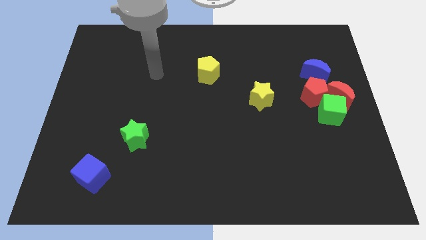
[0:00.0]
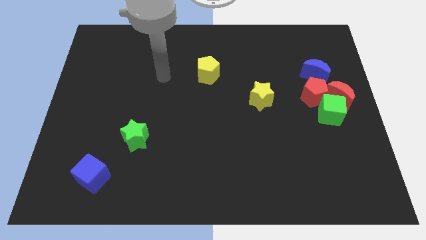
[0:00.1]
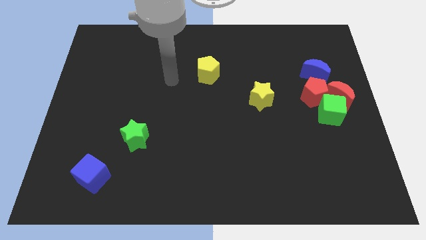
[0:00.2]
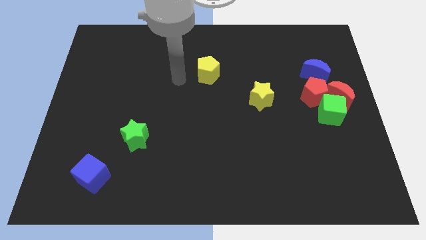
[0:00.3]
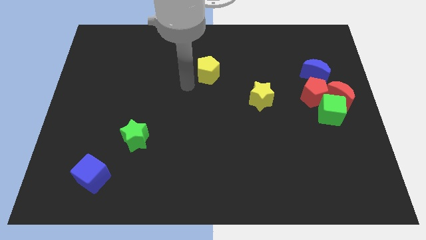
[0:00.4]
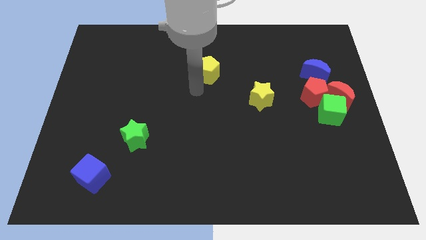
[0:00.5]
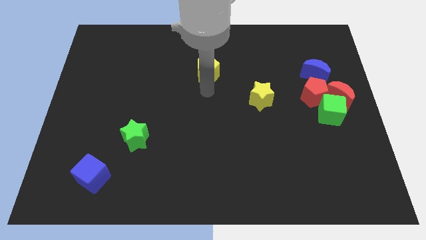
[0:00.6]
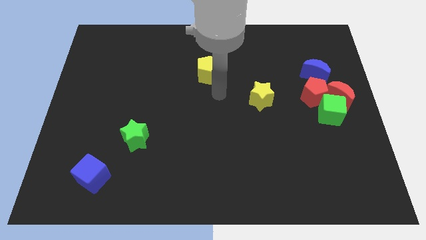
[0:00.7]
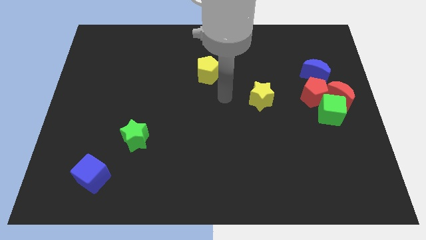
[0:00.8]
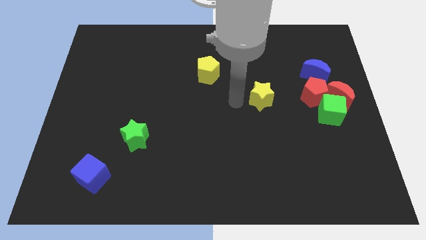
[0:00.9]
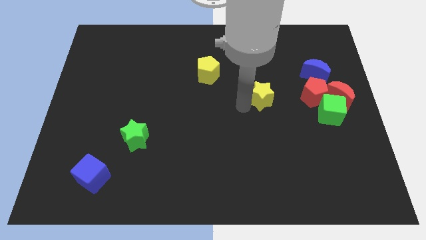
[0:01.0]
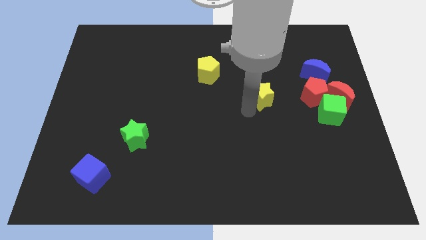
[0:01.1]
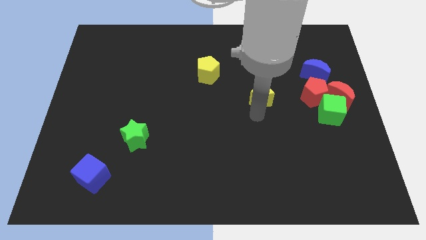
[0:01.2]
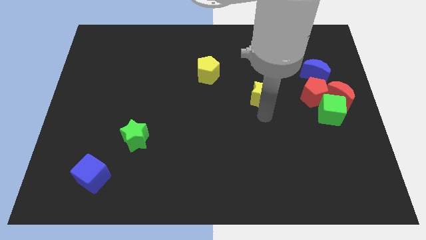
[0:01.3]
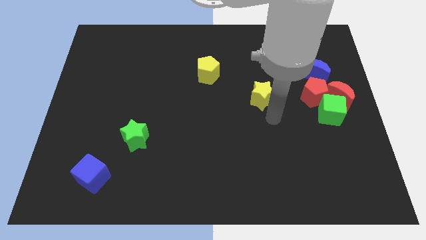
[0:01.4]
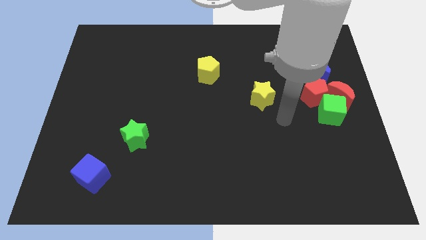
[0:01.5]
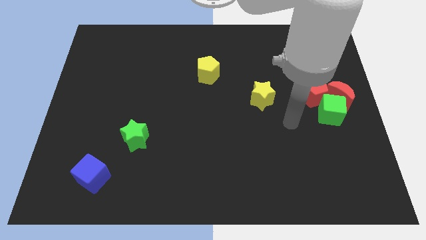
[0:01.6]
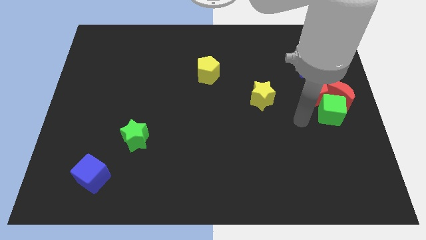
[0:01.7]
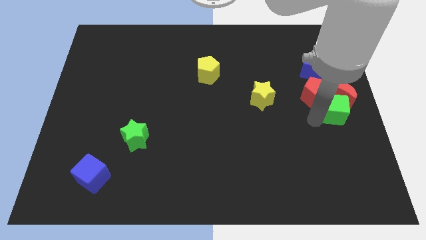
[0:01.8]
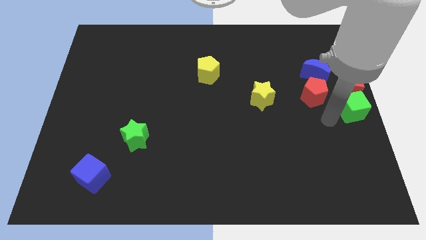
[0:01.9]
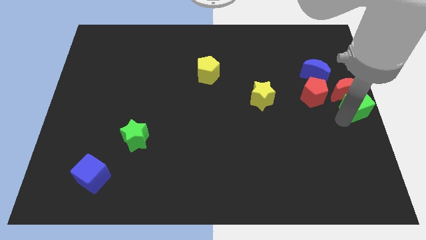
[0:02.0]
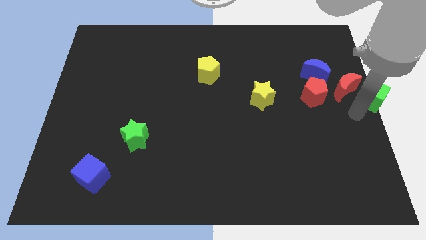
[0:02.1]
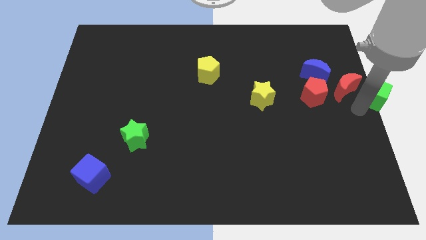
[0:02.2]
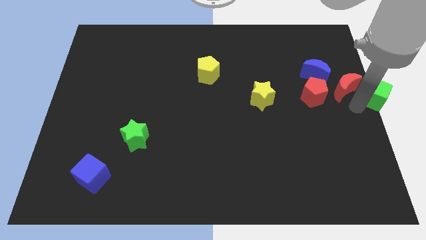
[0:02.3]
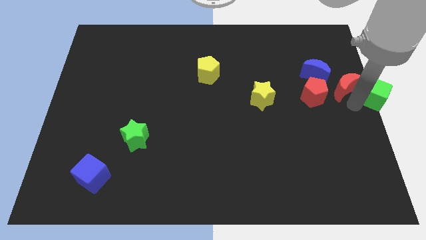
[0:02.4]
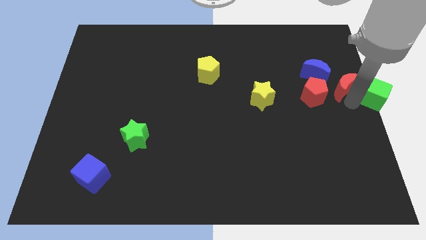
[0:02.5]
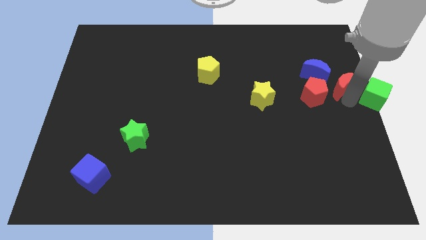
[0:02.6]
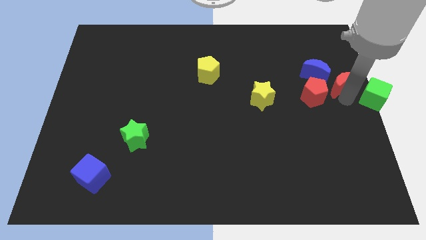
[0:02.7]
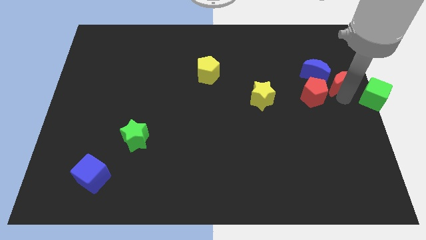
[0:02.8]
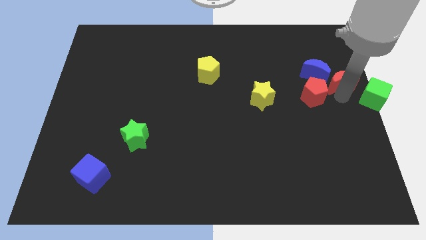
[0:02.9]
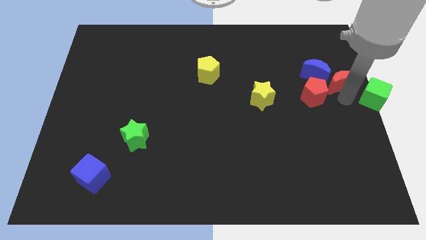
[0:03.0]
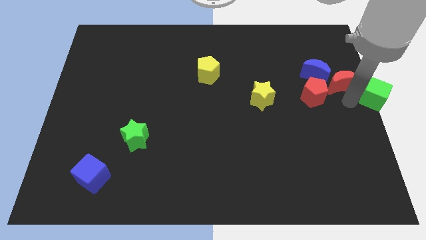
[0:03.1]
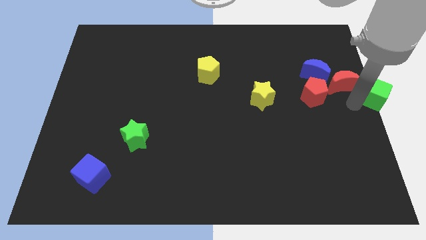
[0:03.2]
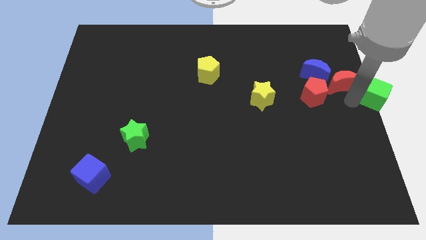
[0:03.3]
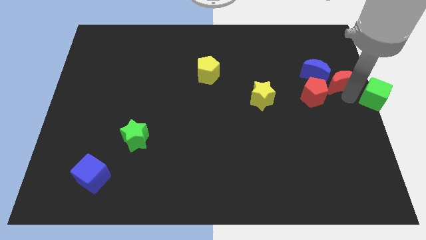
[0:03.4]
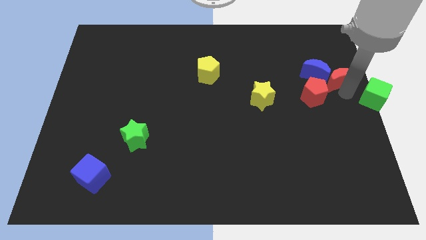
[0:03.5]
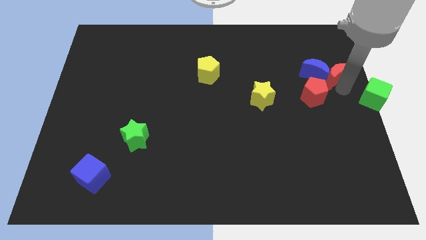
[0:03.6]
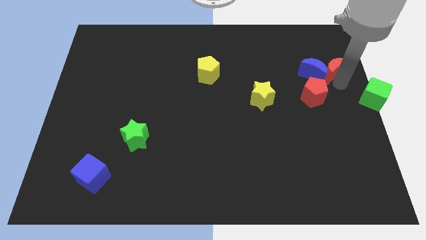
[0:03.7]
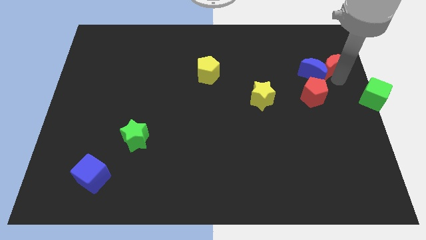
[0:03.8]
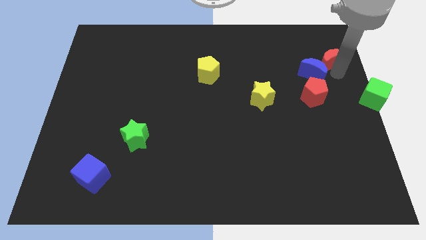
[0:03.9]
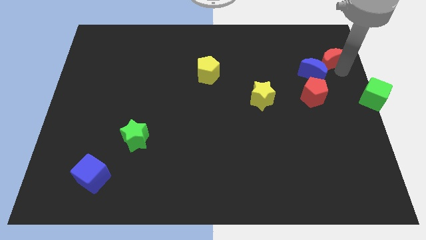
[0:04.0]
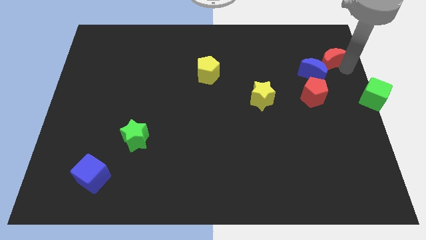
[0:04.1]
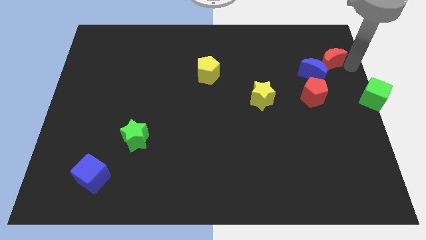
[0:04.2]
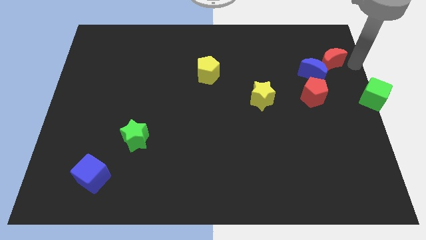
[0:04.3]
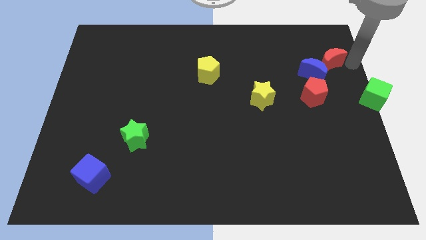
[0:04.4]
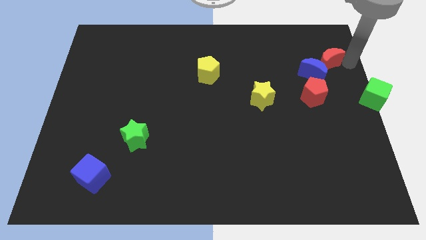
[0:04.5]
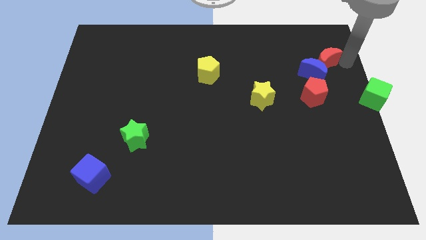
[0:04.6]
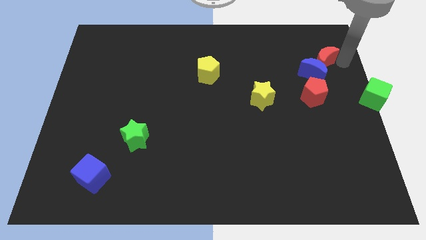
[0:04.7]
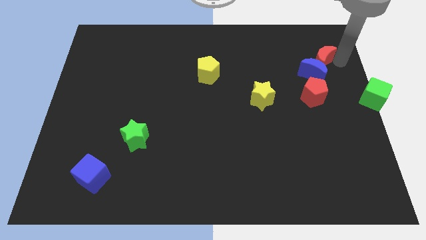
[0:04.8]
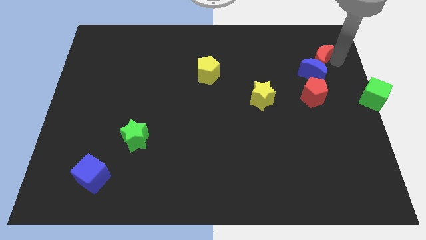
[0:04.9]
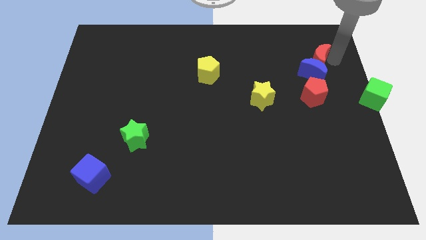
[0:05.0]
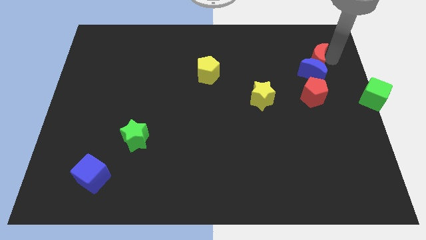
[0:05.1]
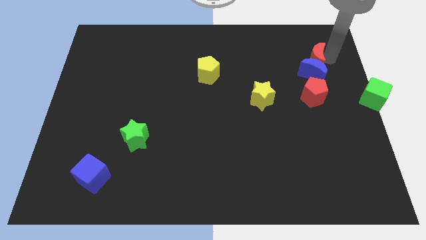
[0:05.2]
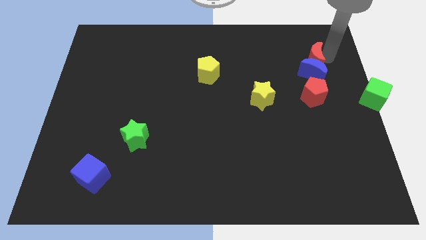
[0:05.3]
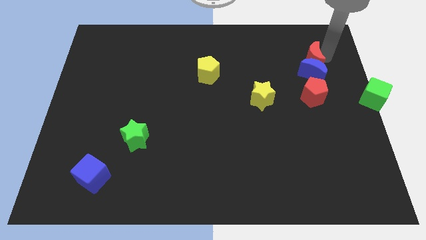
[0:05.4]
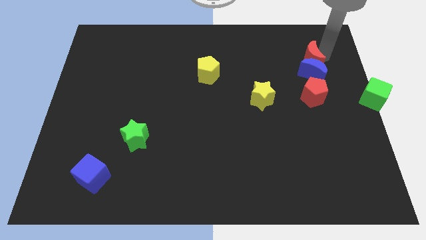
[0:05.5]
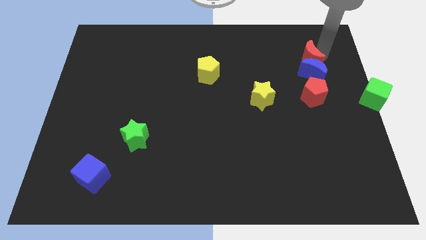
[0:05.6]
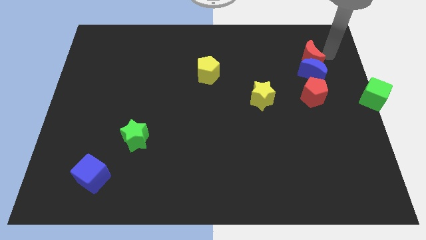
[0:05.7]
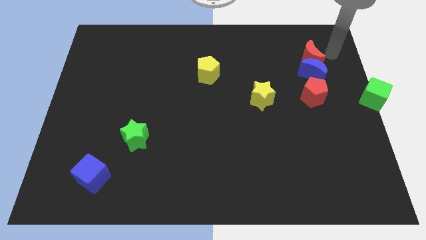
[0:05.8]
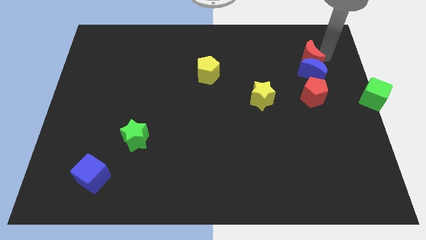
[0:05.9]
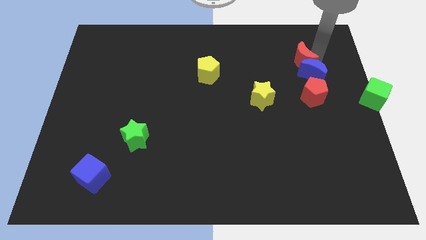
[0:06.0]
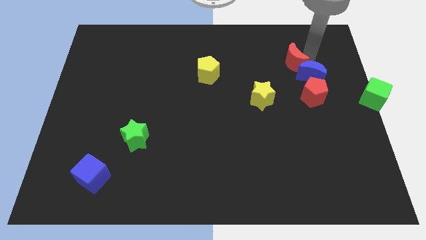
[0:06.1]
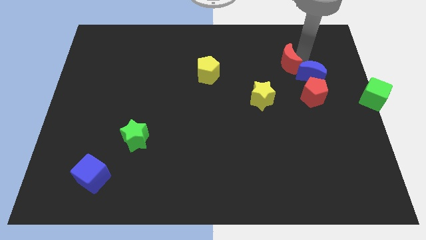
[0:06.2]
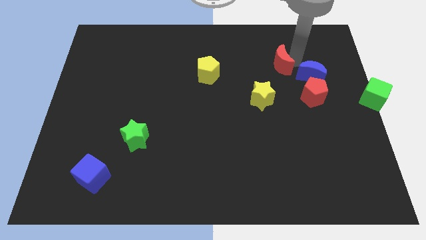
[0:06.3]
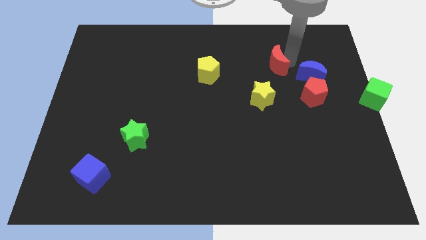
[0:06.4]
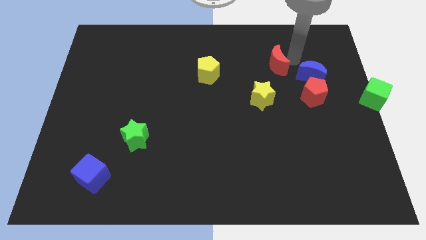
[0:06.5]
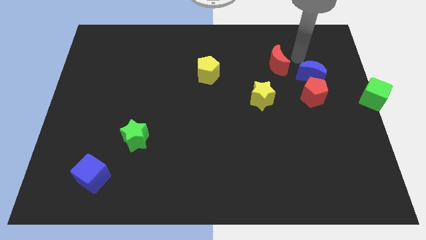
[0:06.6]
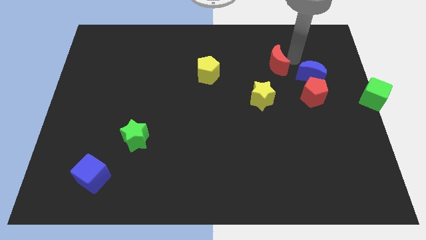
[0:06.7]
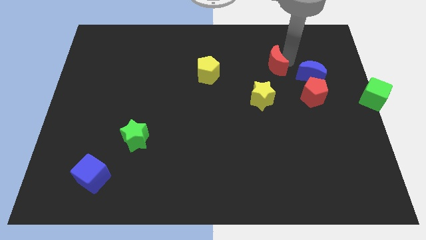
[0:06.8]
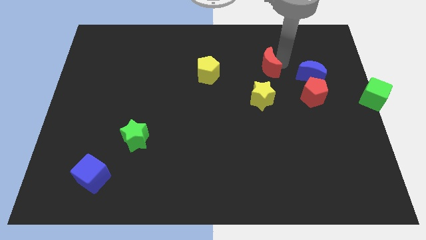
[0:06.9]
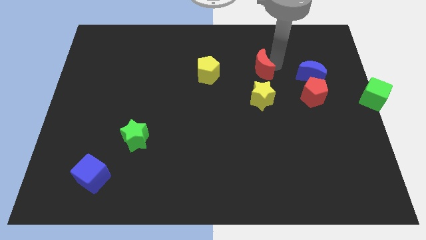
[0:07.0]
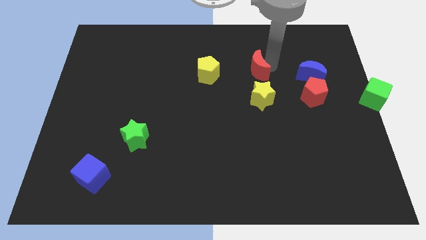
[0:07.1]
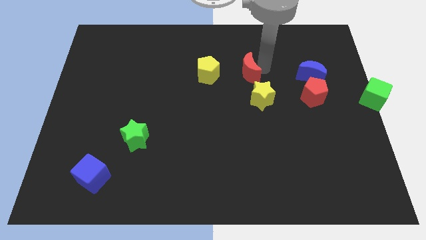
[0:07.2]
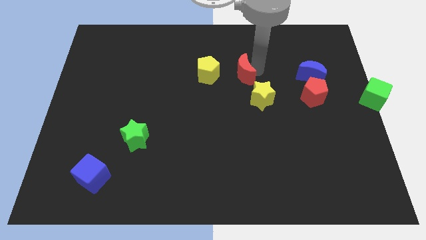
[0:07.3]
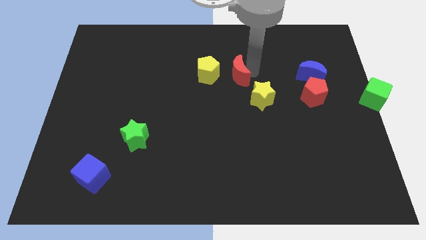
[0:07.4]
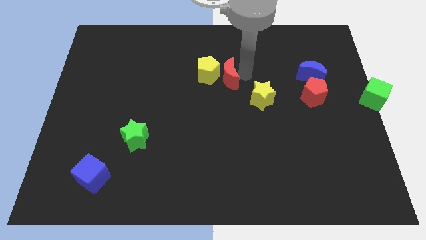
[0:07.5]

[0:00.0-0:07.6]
move the red moon close to the yellow pentagon
